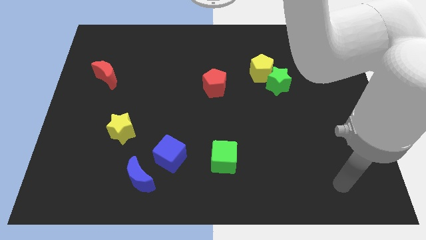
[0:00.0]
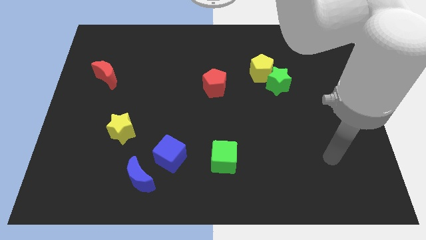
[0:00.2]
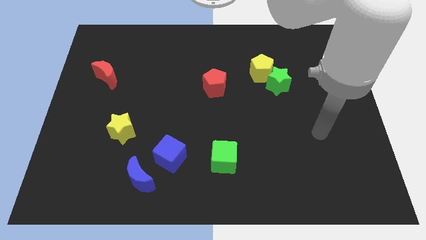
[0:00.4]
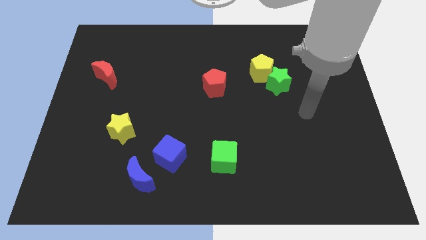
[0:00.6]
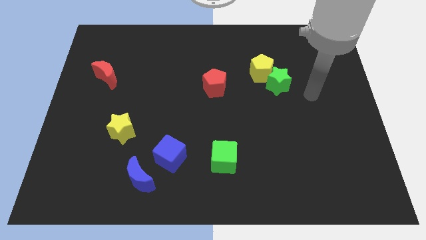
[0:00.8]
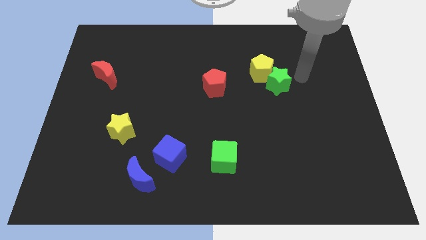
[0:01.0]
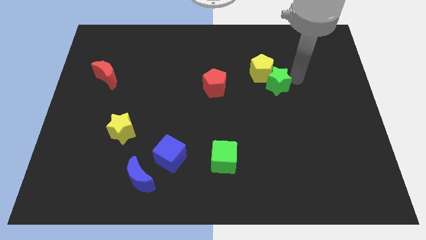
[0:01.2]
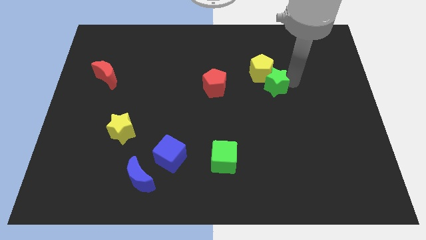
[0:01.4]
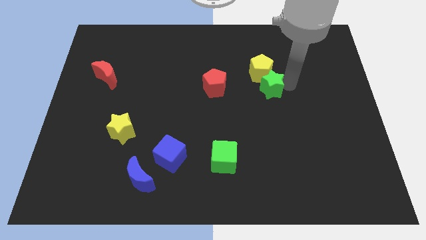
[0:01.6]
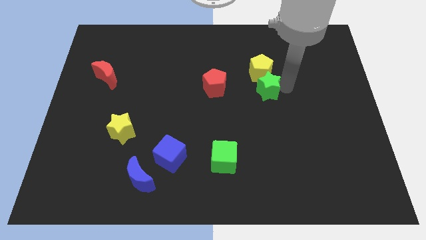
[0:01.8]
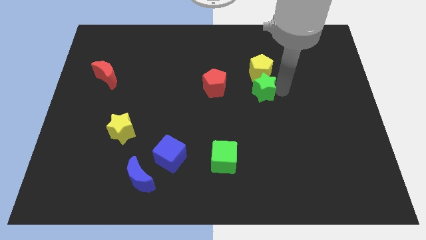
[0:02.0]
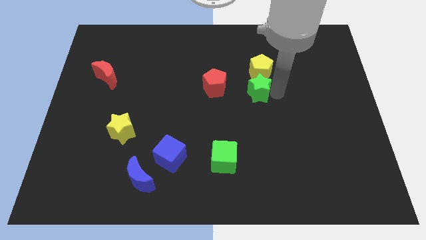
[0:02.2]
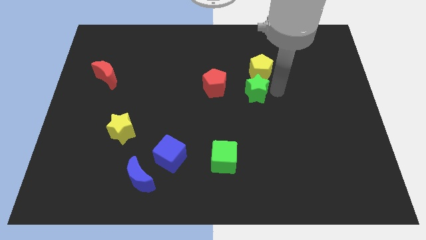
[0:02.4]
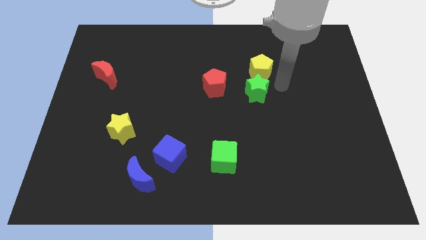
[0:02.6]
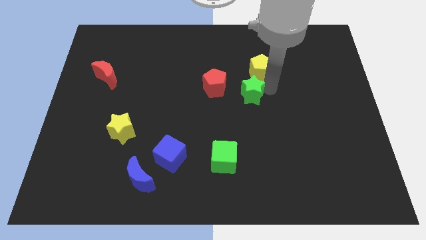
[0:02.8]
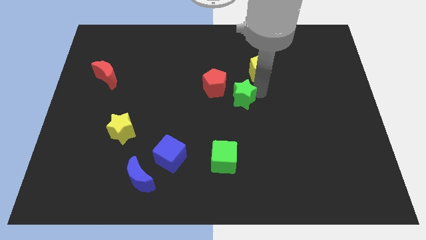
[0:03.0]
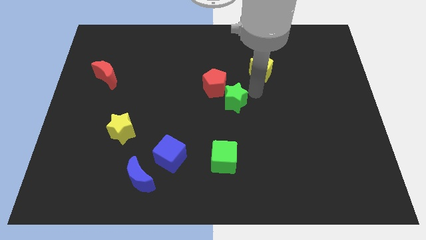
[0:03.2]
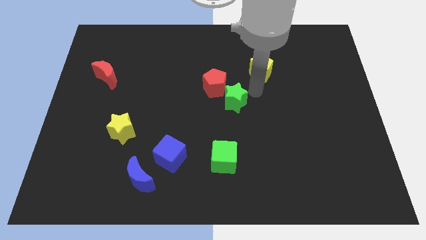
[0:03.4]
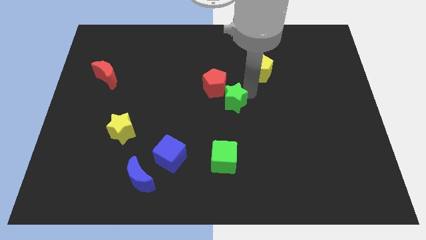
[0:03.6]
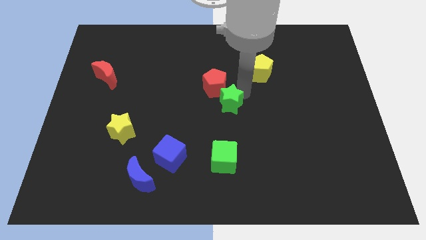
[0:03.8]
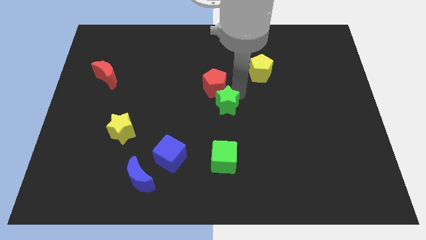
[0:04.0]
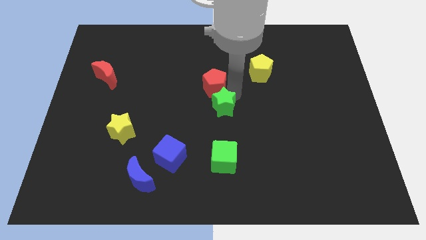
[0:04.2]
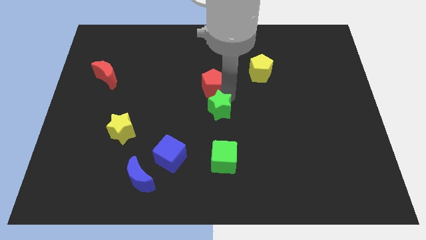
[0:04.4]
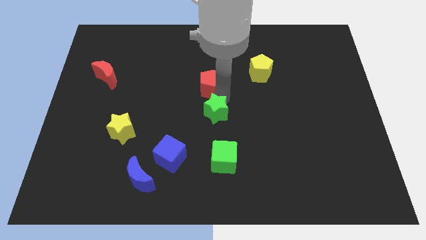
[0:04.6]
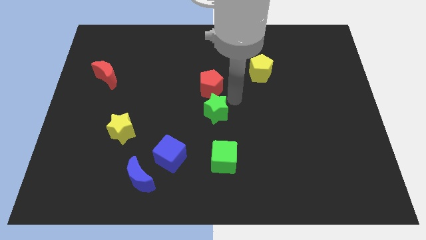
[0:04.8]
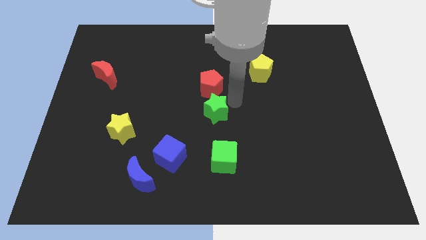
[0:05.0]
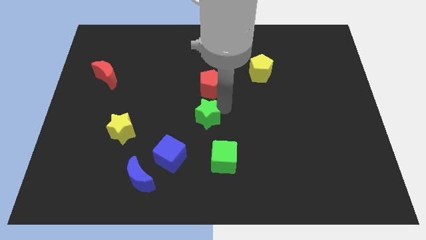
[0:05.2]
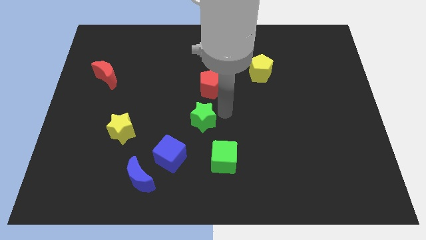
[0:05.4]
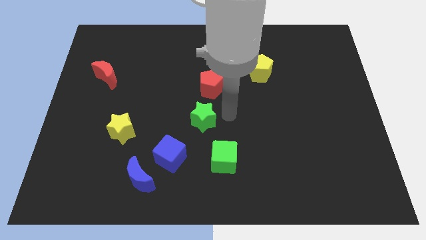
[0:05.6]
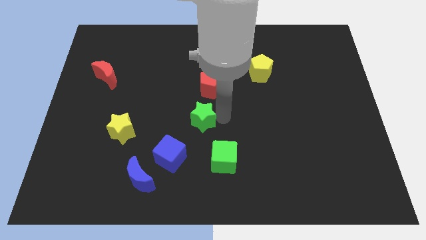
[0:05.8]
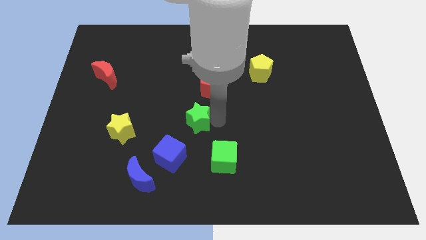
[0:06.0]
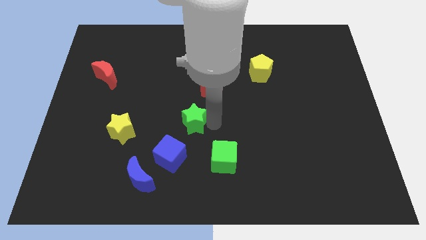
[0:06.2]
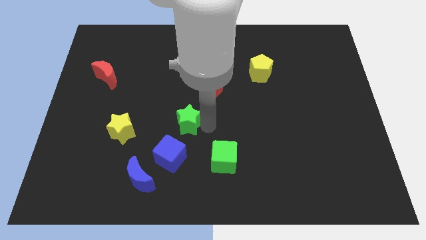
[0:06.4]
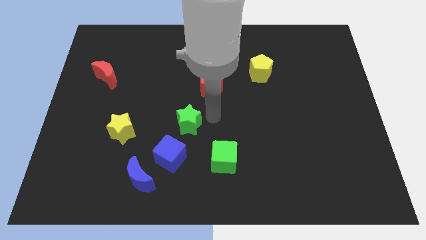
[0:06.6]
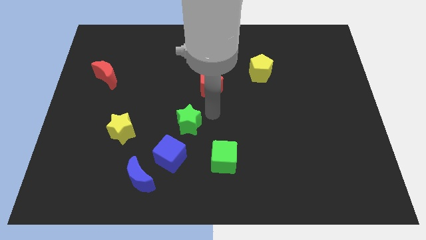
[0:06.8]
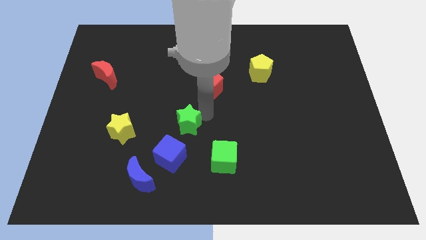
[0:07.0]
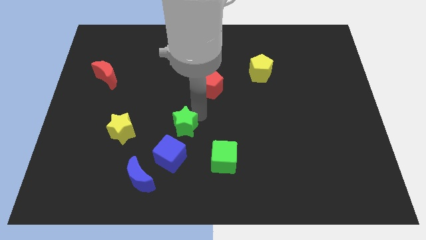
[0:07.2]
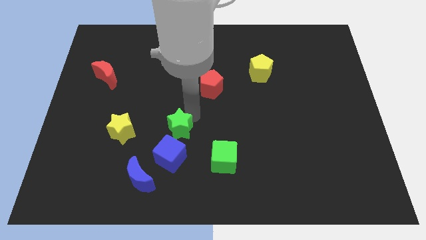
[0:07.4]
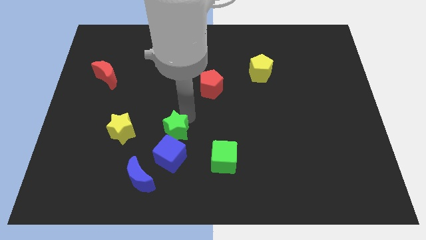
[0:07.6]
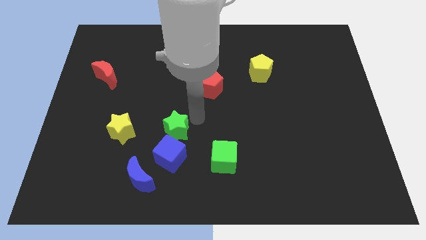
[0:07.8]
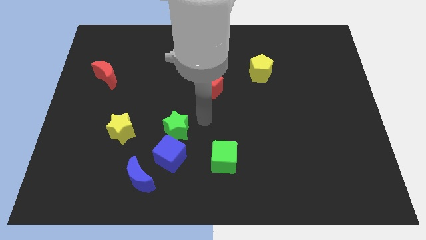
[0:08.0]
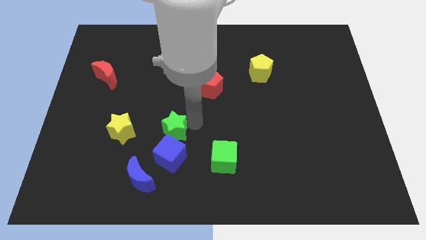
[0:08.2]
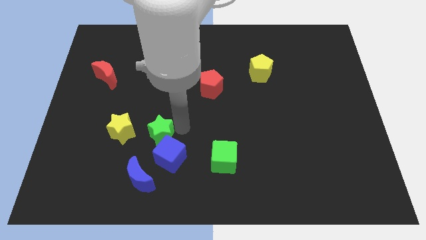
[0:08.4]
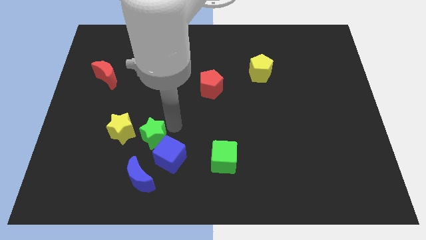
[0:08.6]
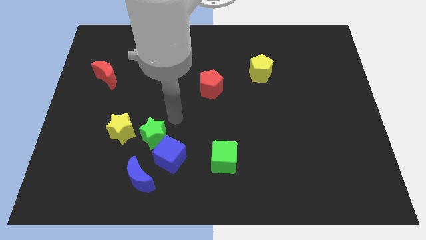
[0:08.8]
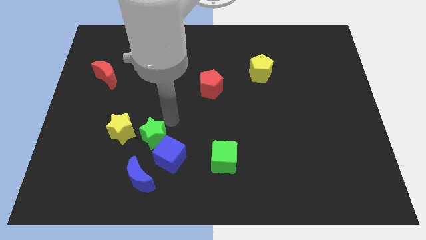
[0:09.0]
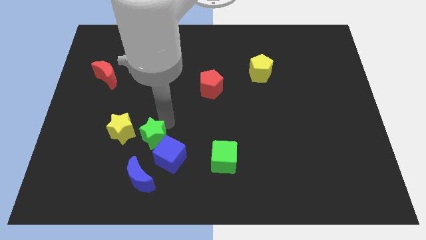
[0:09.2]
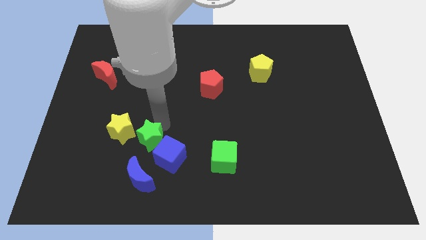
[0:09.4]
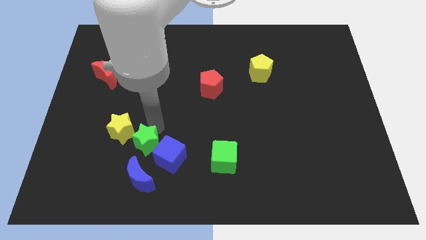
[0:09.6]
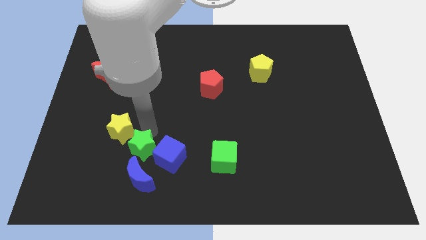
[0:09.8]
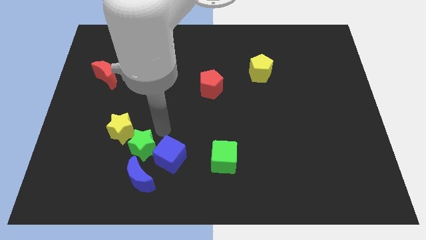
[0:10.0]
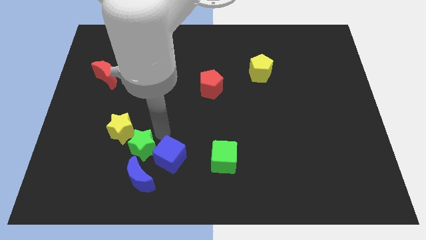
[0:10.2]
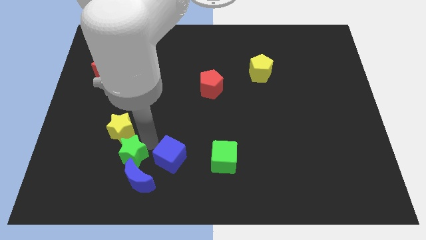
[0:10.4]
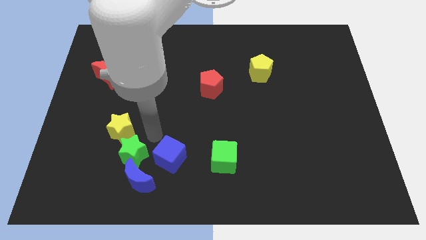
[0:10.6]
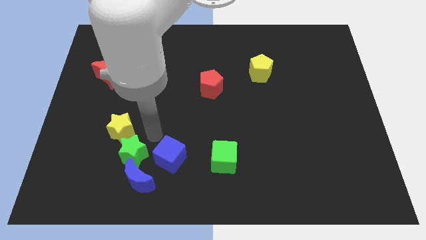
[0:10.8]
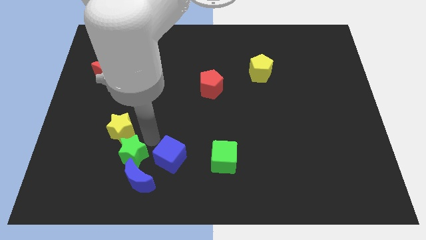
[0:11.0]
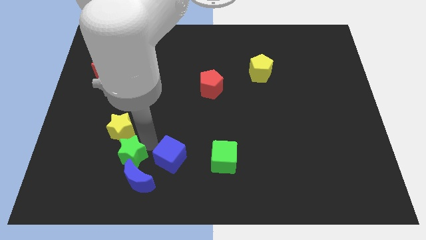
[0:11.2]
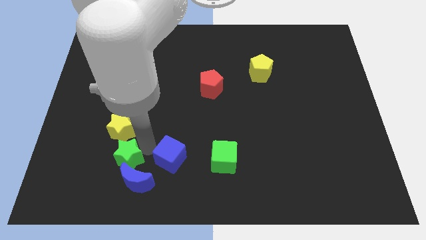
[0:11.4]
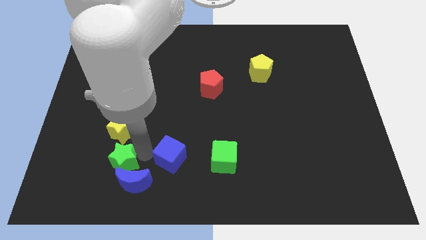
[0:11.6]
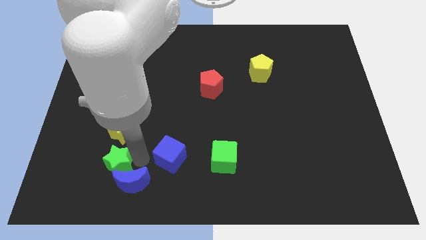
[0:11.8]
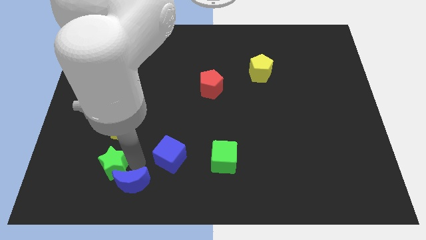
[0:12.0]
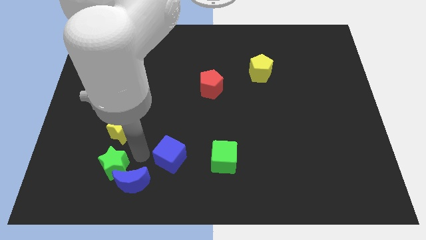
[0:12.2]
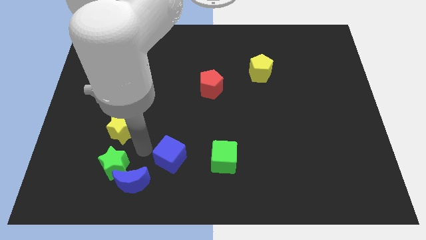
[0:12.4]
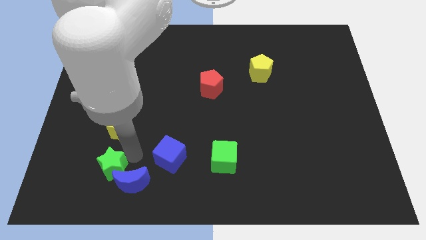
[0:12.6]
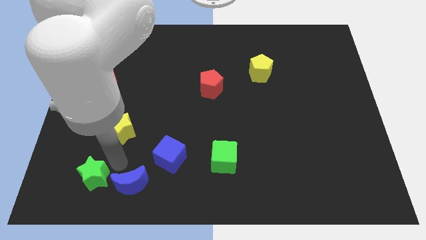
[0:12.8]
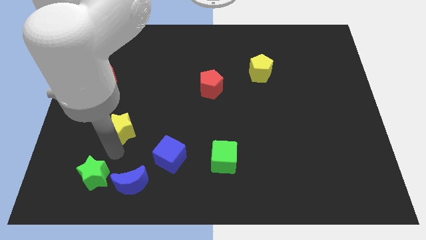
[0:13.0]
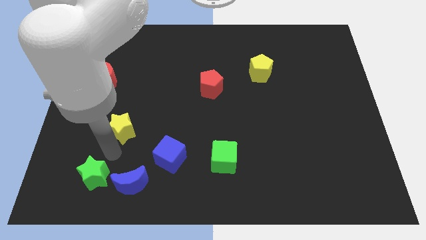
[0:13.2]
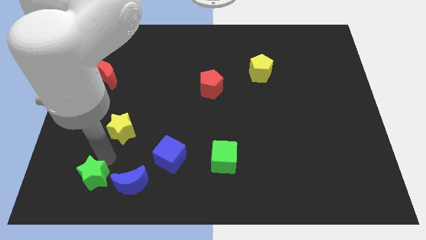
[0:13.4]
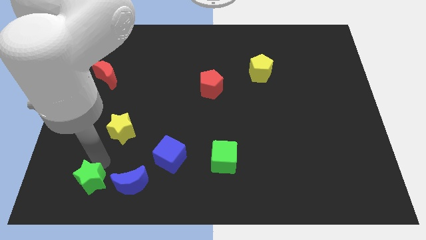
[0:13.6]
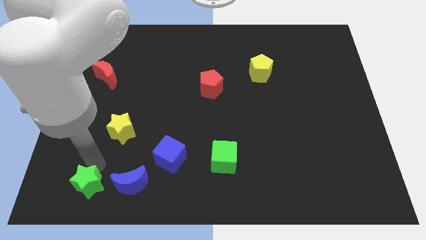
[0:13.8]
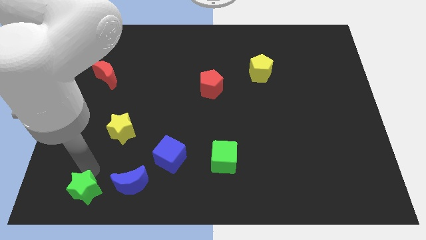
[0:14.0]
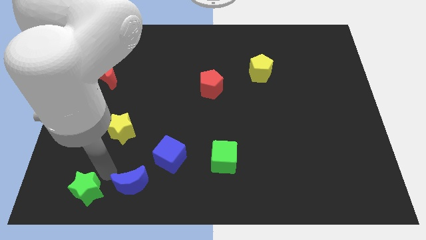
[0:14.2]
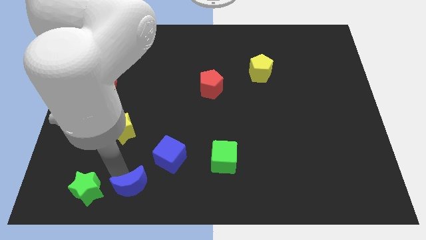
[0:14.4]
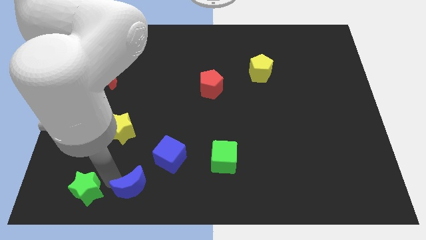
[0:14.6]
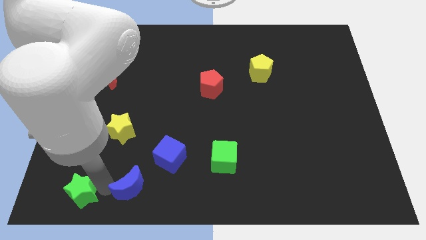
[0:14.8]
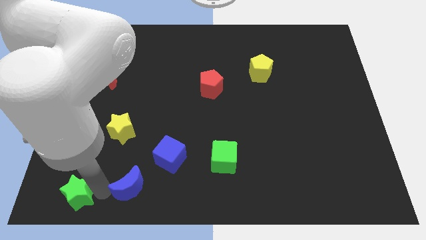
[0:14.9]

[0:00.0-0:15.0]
put the green star to the lower left corner
